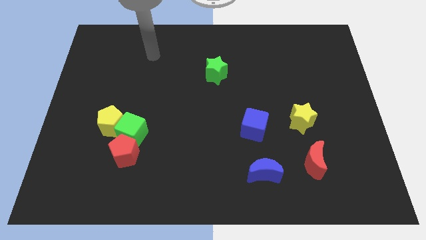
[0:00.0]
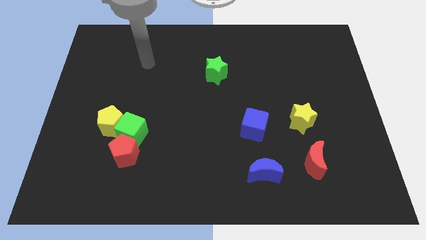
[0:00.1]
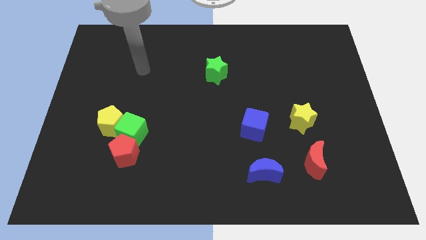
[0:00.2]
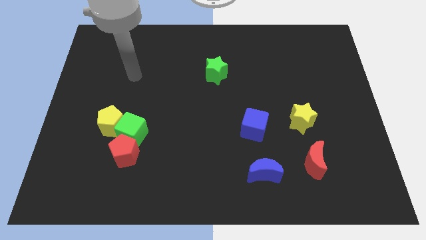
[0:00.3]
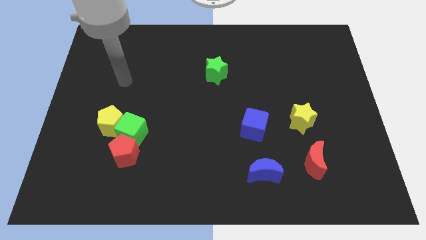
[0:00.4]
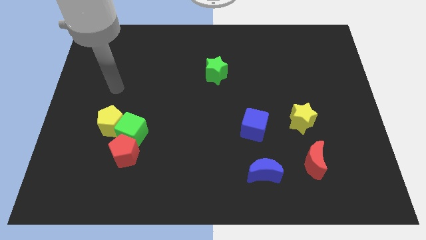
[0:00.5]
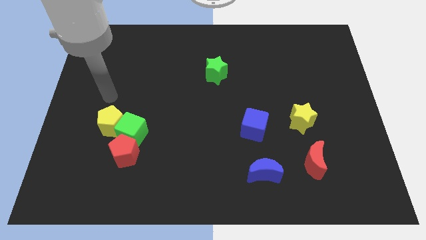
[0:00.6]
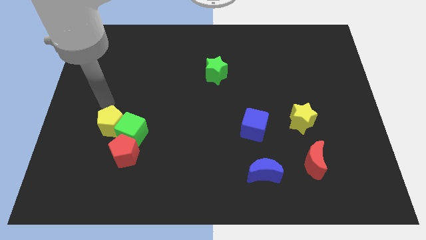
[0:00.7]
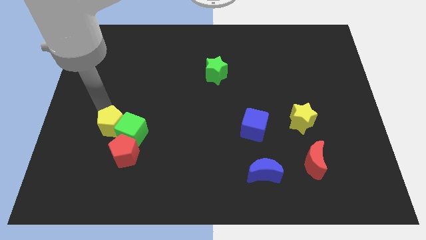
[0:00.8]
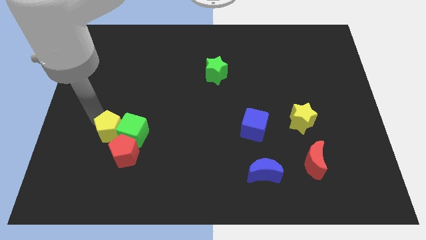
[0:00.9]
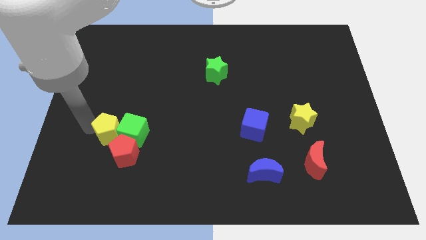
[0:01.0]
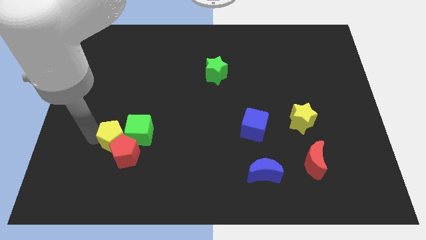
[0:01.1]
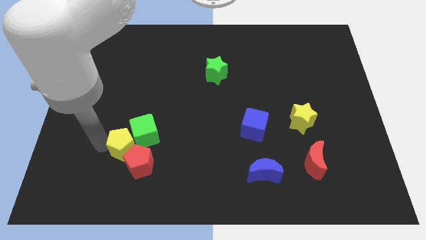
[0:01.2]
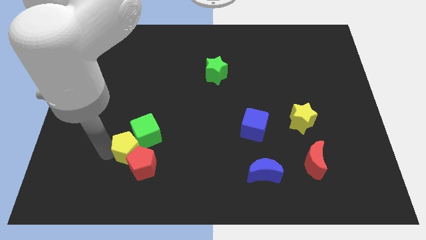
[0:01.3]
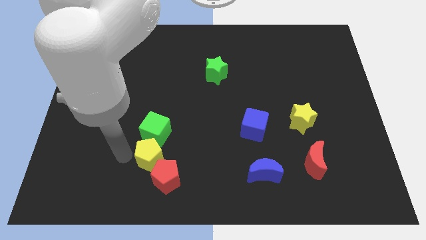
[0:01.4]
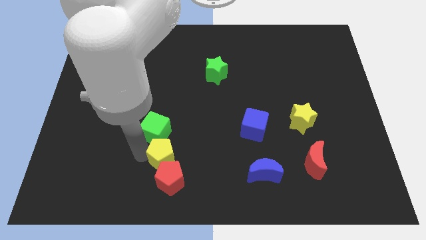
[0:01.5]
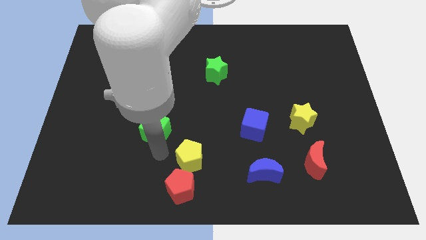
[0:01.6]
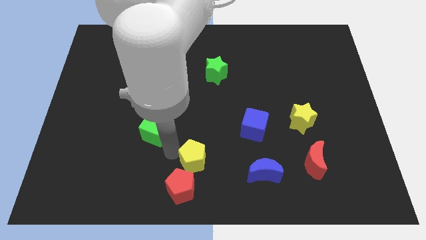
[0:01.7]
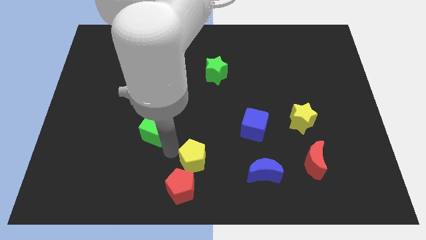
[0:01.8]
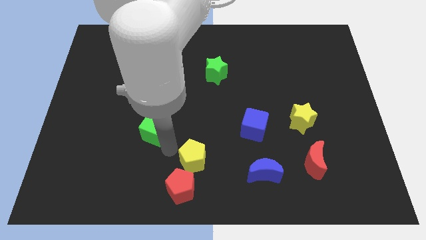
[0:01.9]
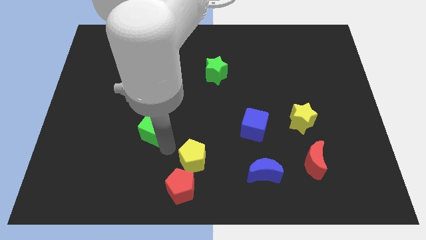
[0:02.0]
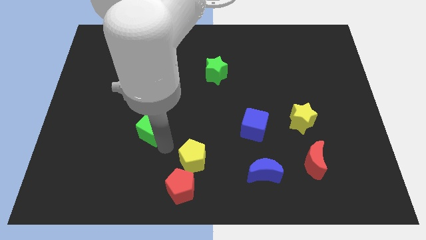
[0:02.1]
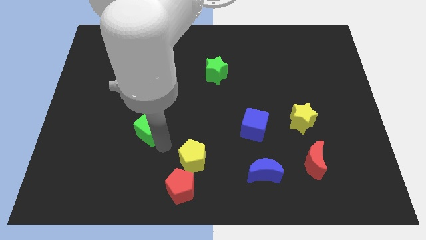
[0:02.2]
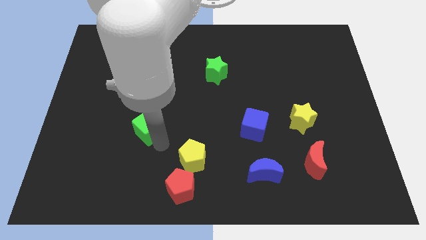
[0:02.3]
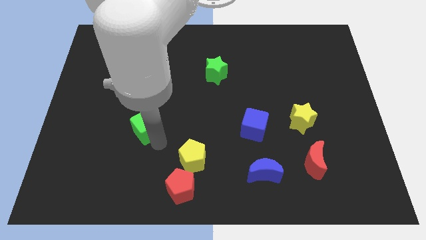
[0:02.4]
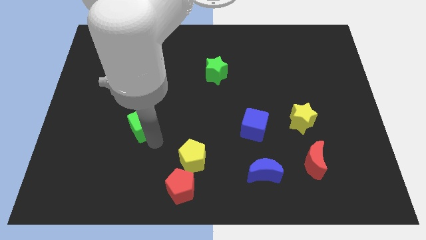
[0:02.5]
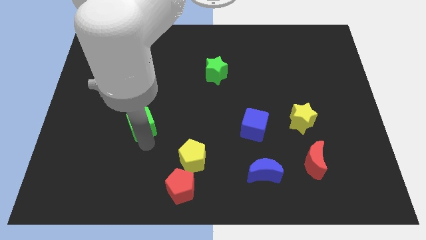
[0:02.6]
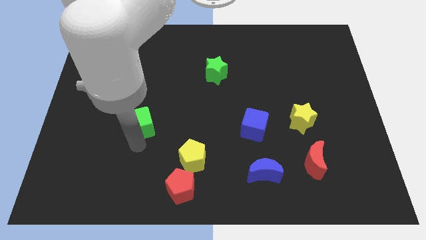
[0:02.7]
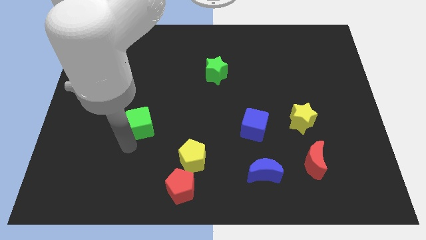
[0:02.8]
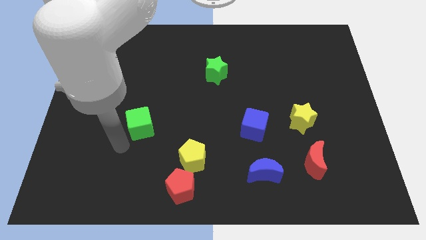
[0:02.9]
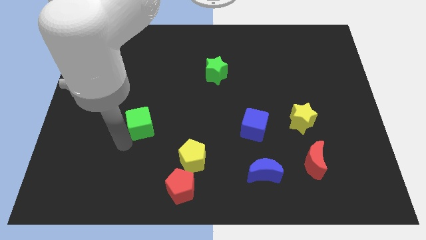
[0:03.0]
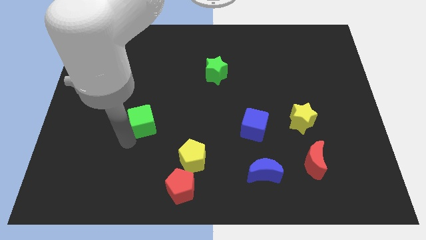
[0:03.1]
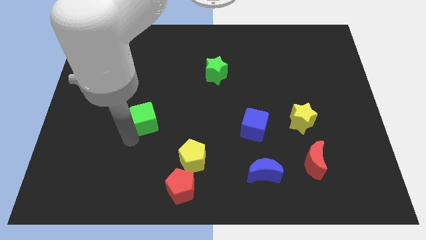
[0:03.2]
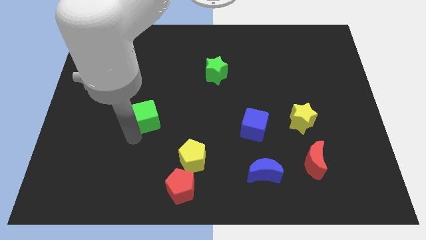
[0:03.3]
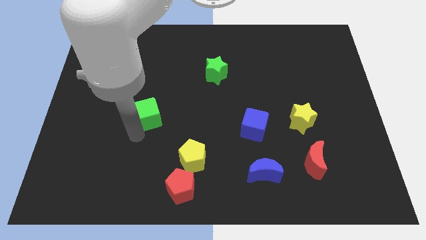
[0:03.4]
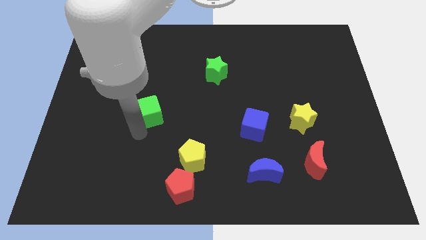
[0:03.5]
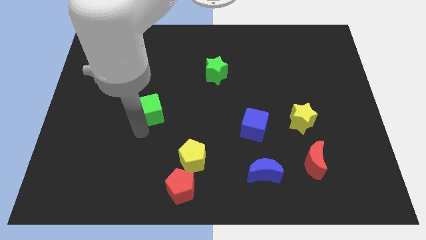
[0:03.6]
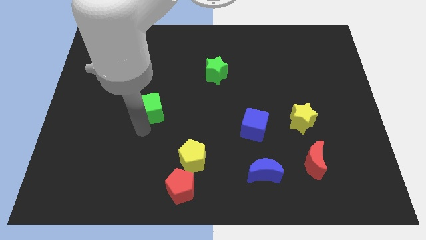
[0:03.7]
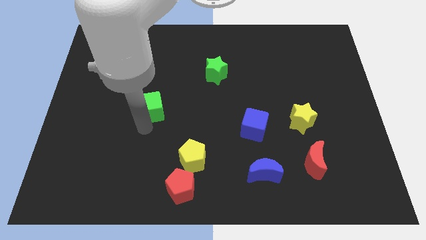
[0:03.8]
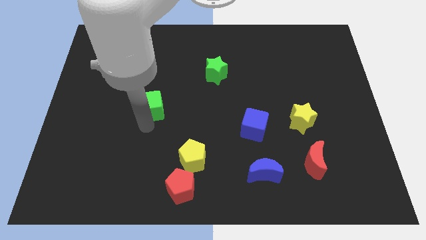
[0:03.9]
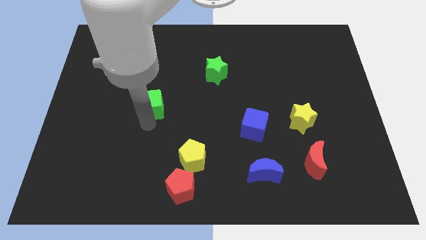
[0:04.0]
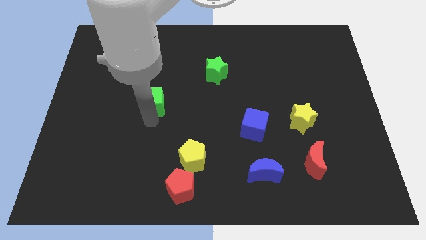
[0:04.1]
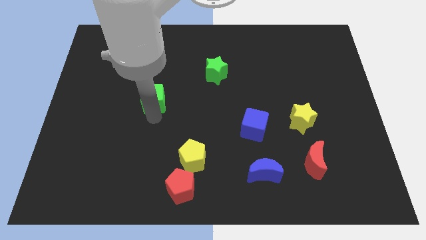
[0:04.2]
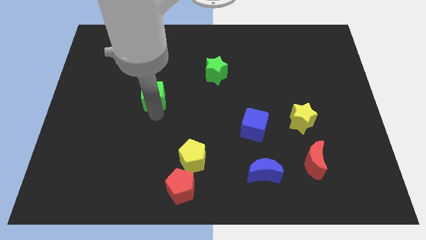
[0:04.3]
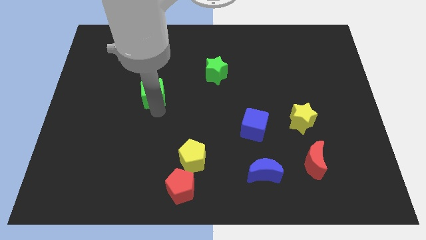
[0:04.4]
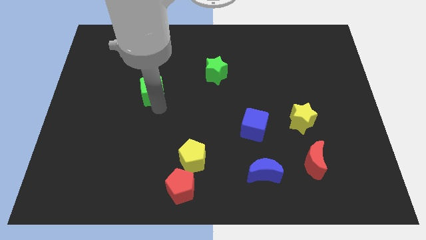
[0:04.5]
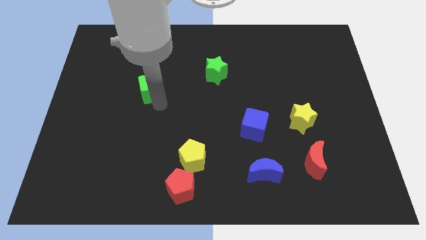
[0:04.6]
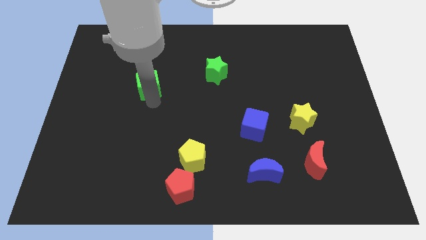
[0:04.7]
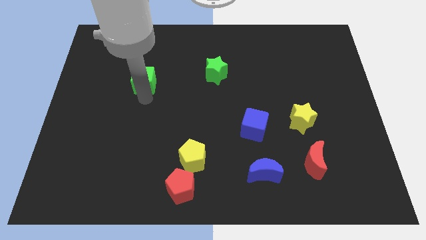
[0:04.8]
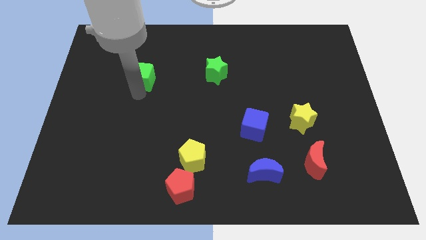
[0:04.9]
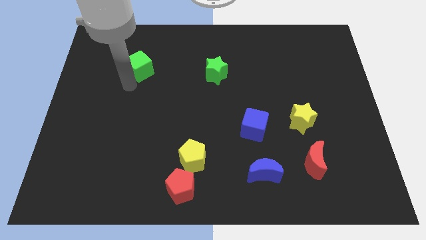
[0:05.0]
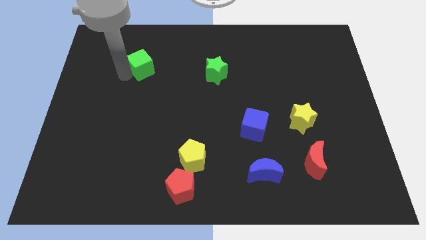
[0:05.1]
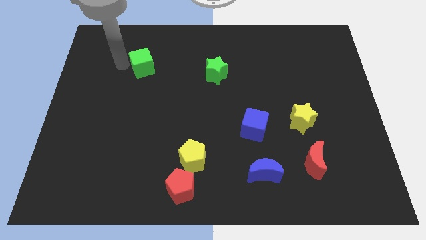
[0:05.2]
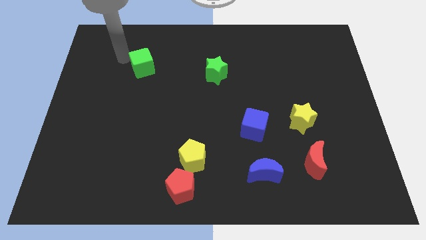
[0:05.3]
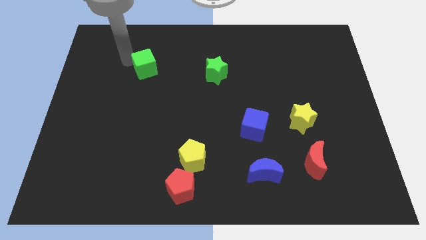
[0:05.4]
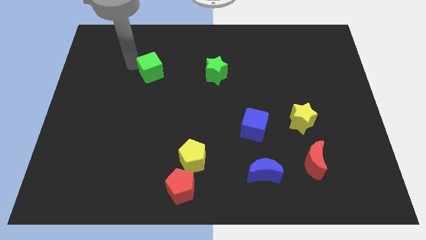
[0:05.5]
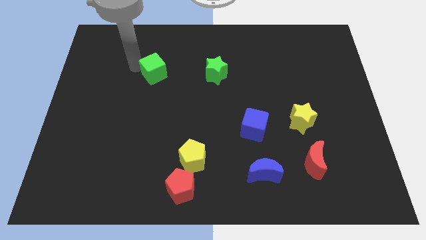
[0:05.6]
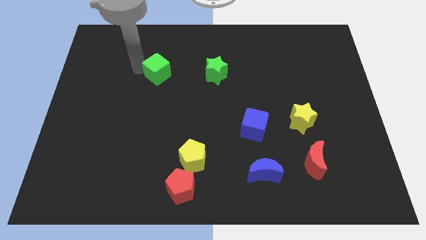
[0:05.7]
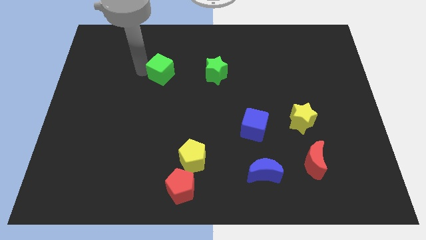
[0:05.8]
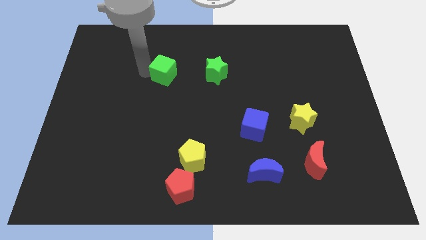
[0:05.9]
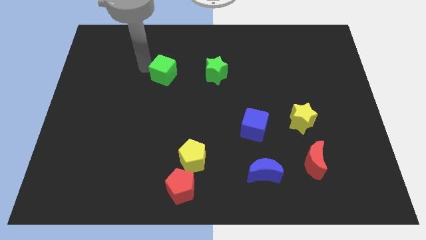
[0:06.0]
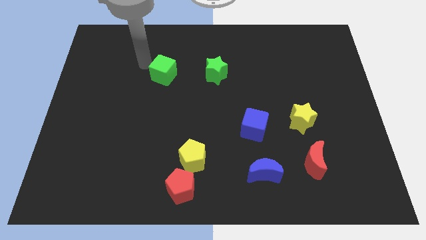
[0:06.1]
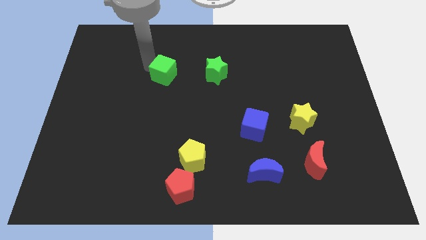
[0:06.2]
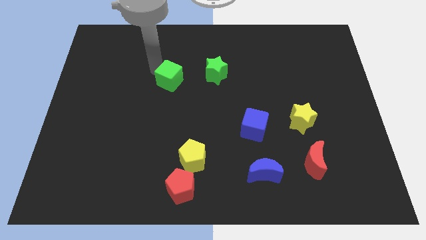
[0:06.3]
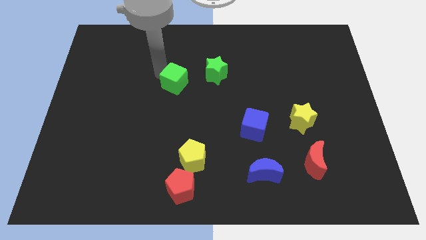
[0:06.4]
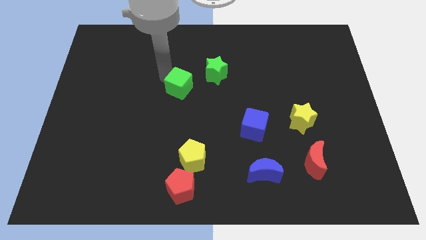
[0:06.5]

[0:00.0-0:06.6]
slide the green cube to the bottom left side of the green star
